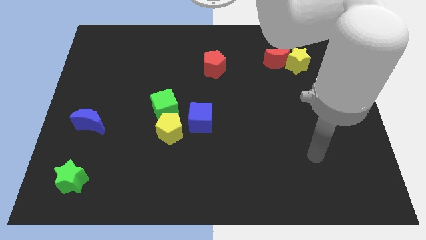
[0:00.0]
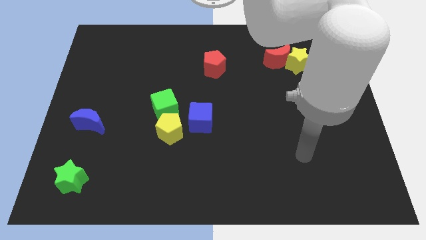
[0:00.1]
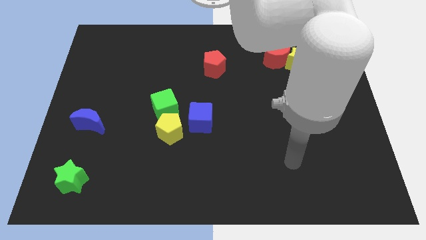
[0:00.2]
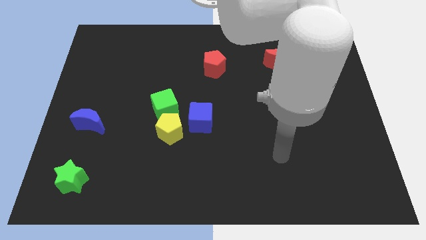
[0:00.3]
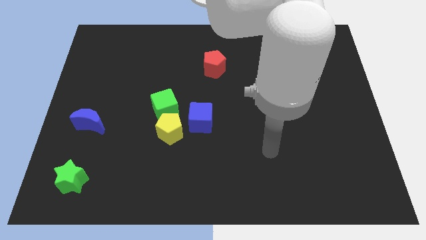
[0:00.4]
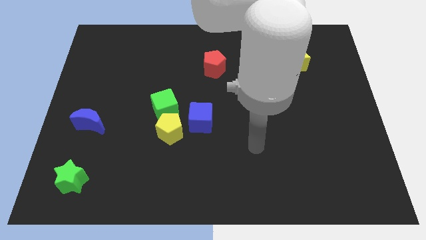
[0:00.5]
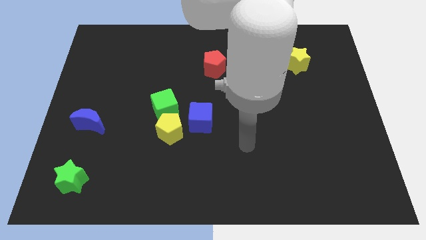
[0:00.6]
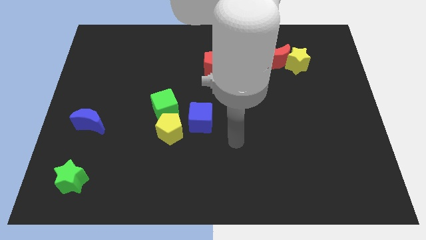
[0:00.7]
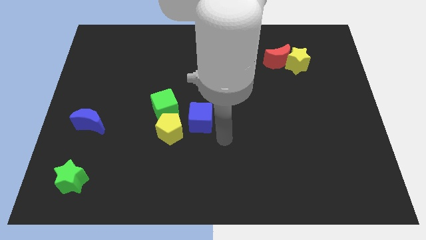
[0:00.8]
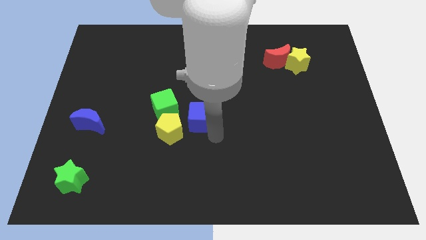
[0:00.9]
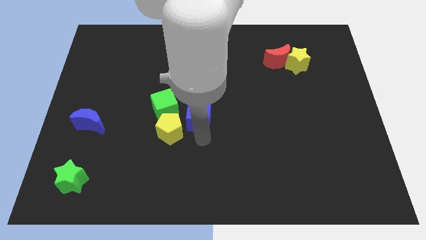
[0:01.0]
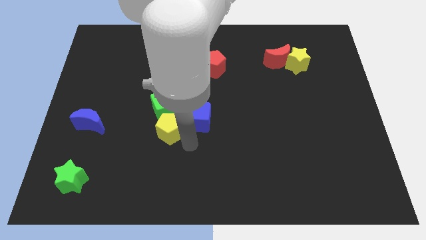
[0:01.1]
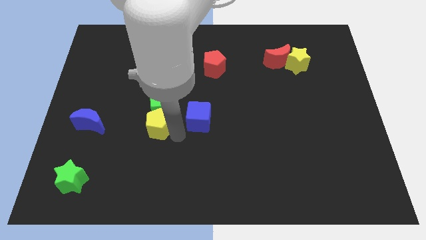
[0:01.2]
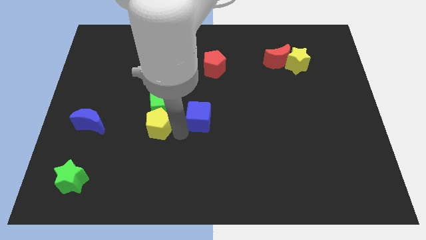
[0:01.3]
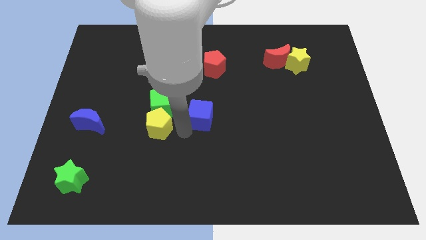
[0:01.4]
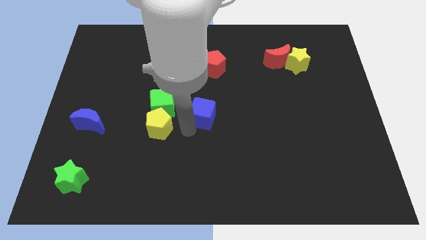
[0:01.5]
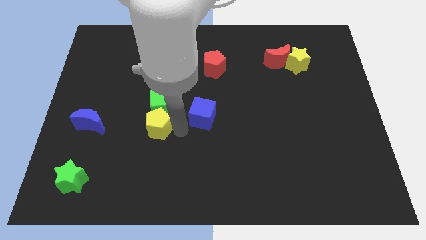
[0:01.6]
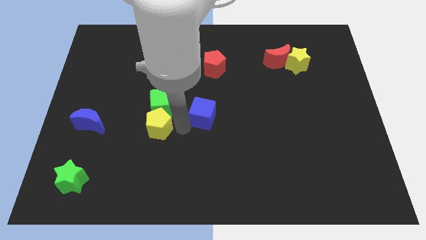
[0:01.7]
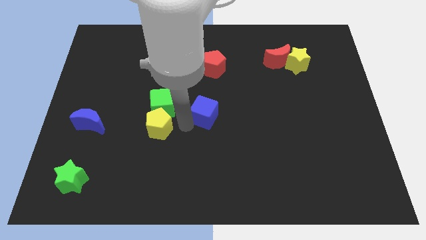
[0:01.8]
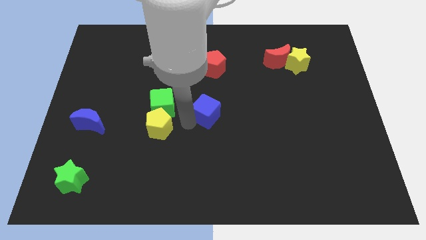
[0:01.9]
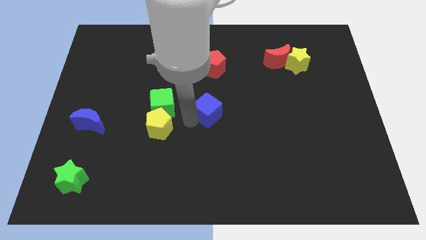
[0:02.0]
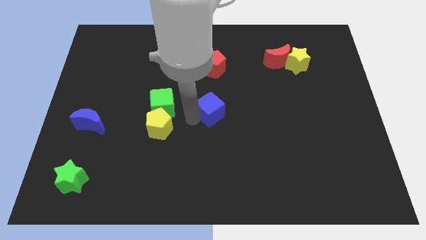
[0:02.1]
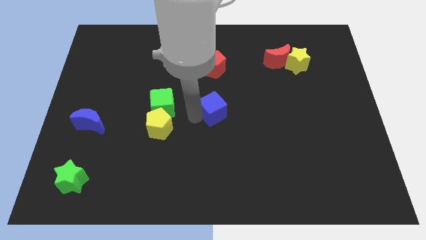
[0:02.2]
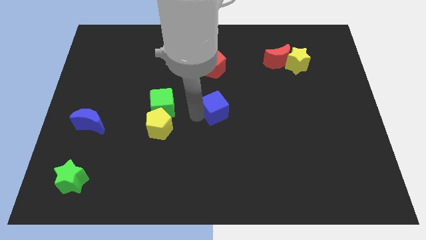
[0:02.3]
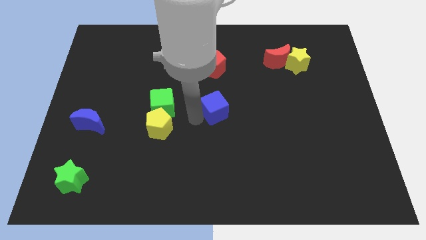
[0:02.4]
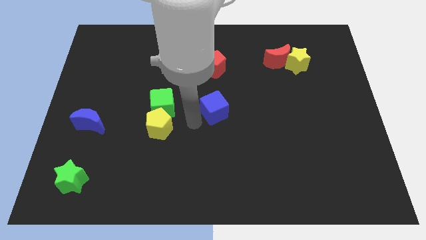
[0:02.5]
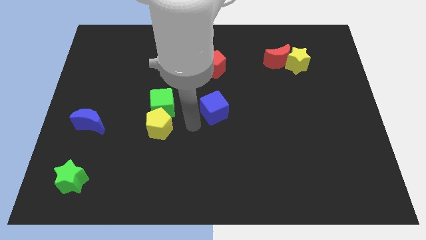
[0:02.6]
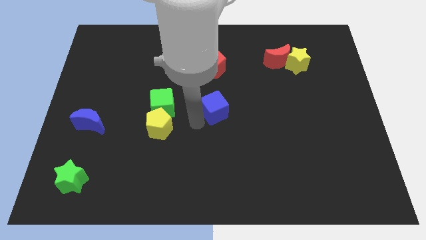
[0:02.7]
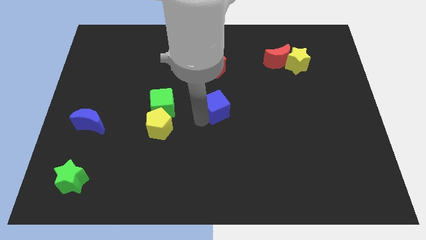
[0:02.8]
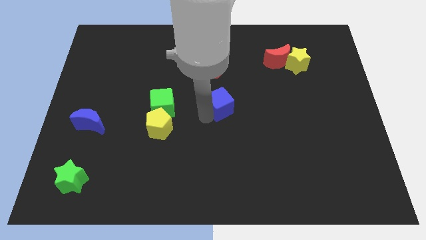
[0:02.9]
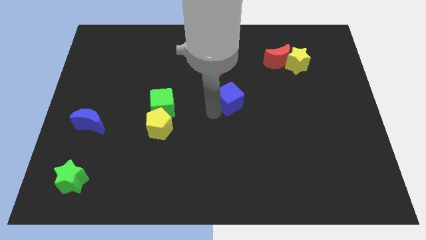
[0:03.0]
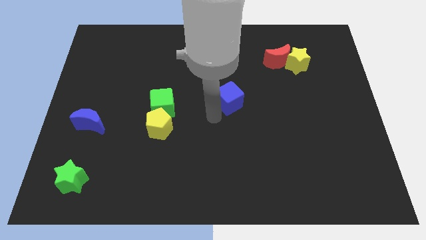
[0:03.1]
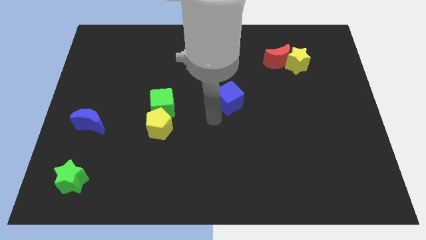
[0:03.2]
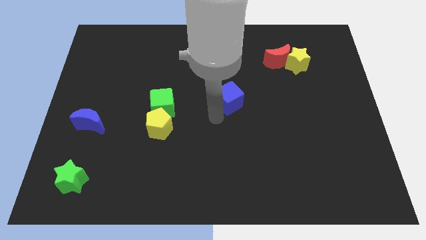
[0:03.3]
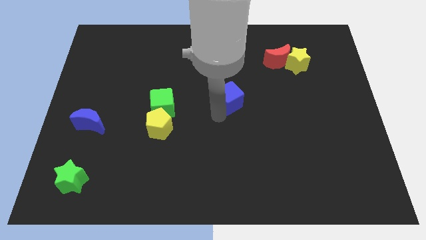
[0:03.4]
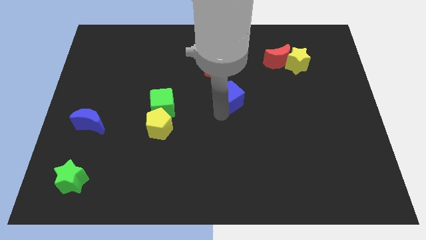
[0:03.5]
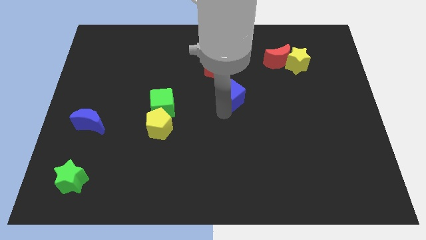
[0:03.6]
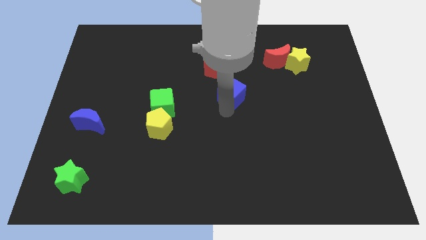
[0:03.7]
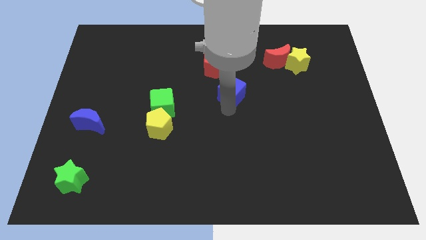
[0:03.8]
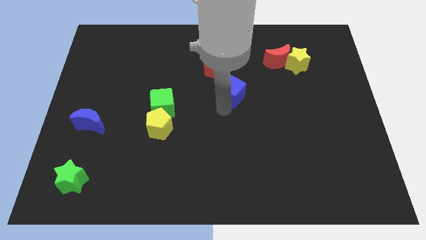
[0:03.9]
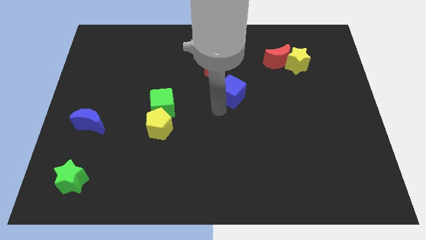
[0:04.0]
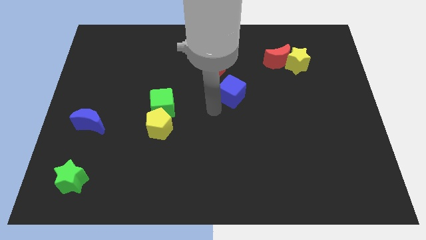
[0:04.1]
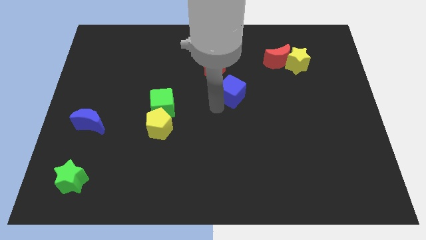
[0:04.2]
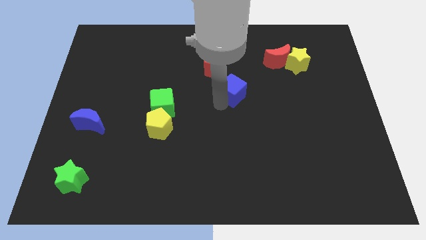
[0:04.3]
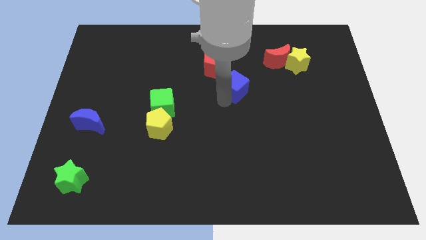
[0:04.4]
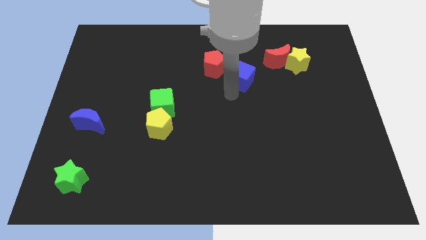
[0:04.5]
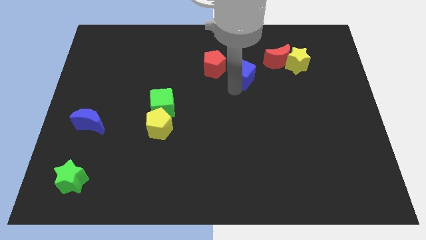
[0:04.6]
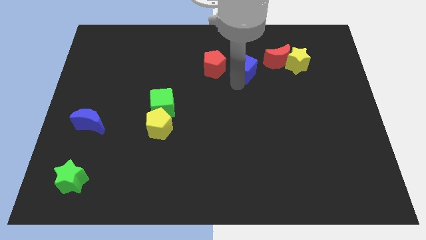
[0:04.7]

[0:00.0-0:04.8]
slide the blue cube just left of the yellow star

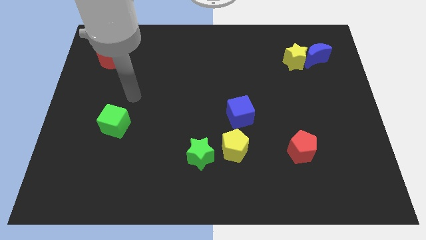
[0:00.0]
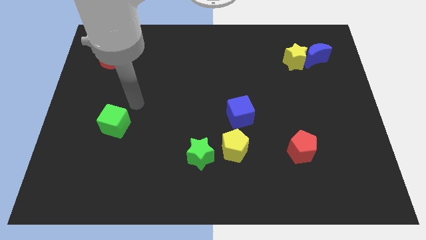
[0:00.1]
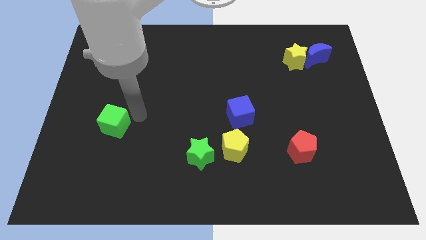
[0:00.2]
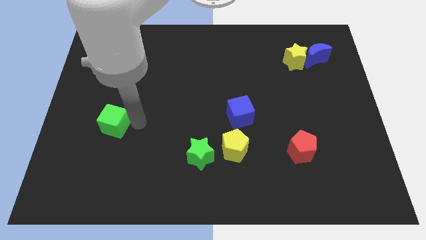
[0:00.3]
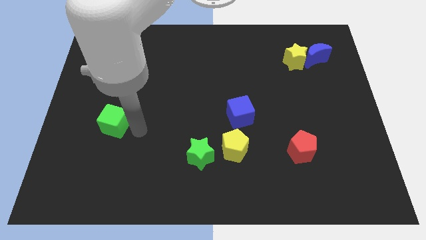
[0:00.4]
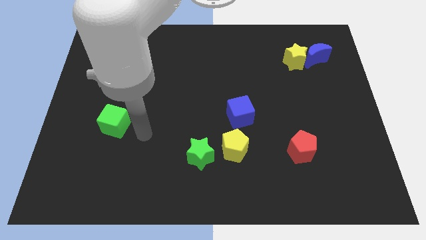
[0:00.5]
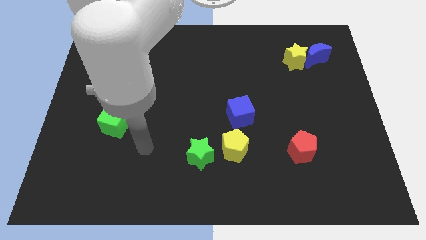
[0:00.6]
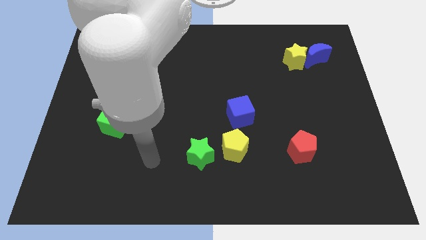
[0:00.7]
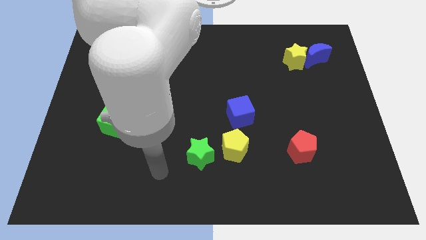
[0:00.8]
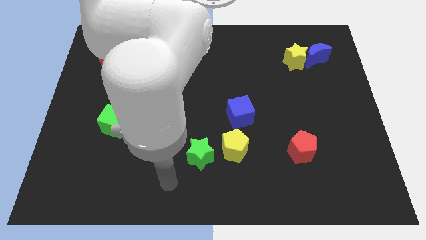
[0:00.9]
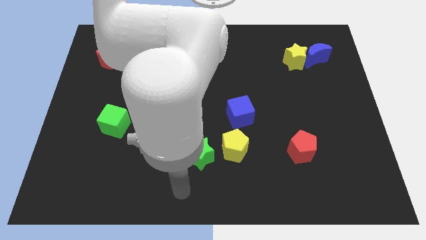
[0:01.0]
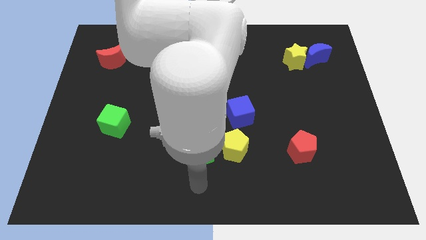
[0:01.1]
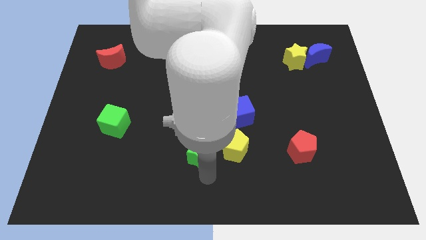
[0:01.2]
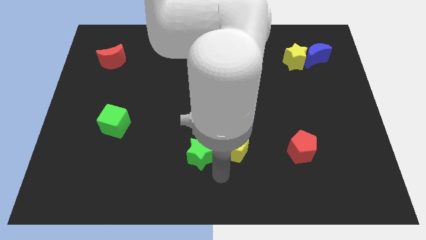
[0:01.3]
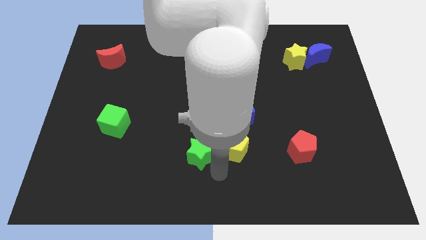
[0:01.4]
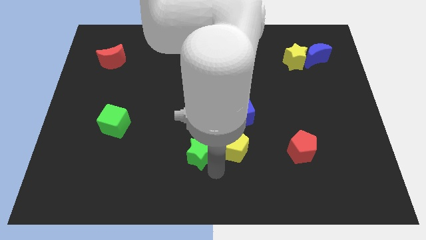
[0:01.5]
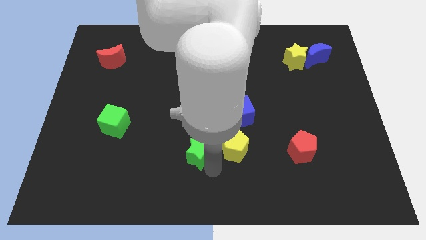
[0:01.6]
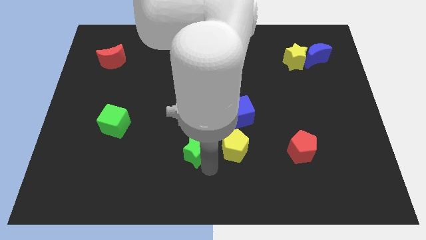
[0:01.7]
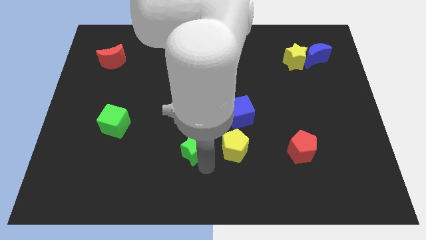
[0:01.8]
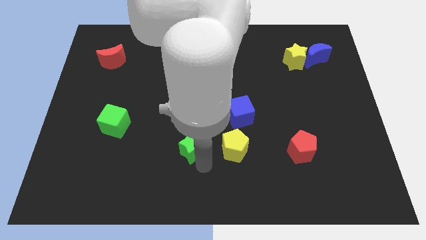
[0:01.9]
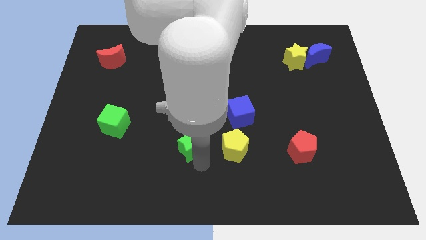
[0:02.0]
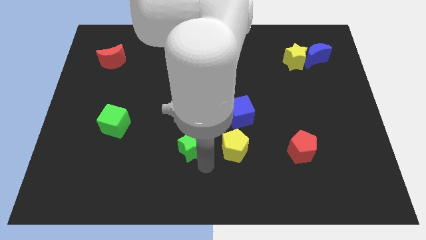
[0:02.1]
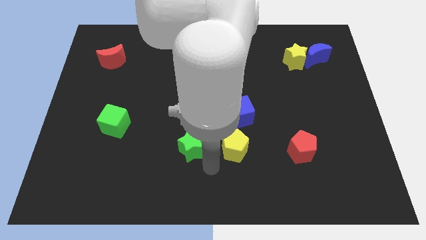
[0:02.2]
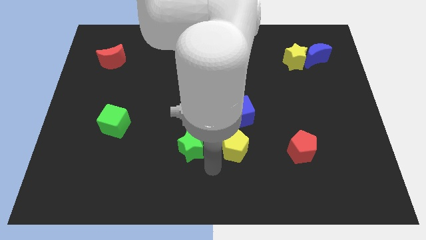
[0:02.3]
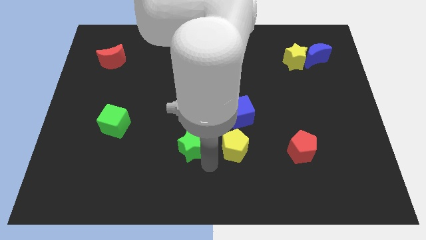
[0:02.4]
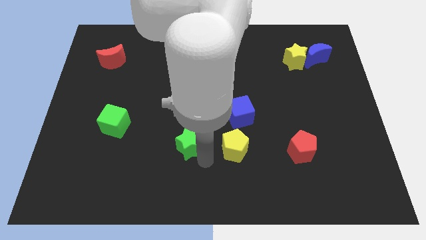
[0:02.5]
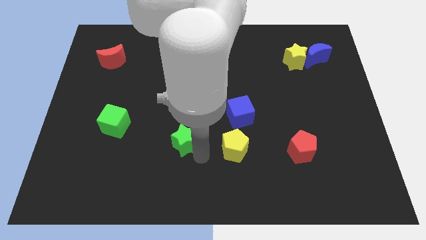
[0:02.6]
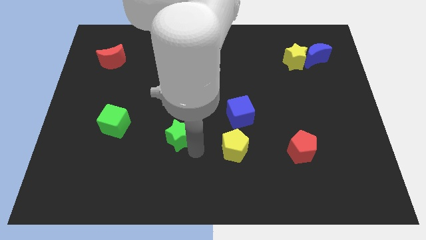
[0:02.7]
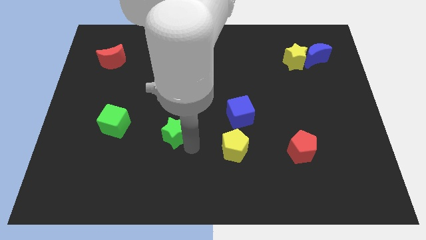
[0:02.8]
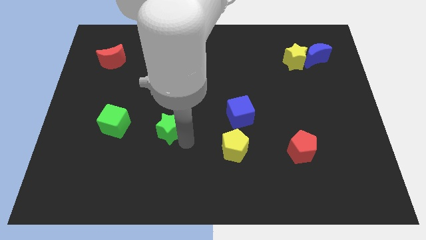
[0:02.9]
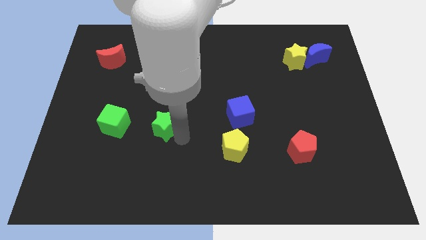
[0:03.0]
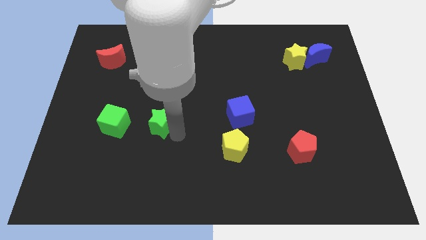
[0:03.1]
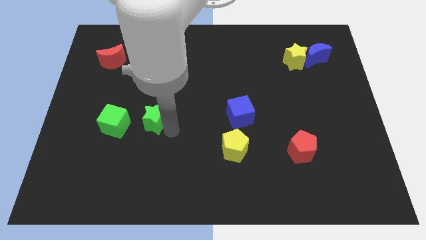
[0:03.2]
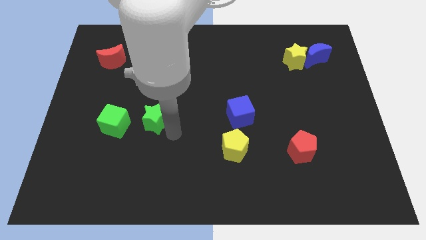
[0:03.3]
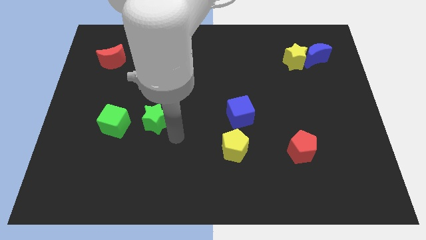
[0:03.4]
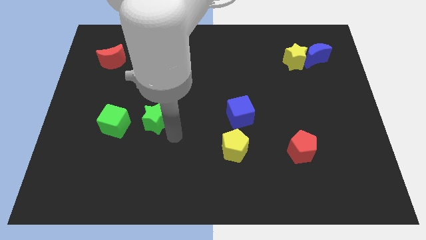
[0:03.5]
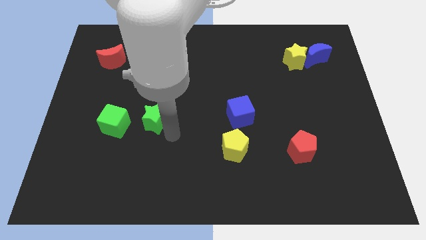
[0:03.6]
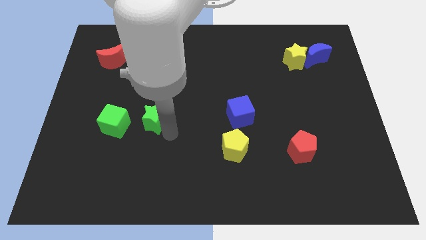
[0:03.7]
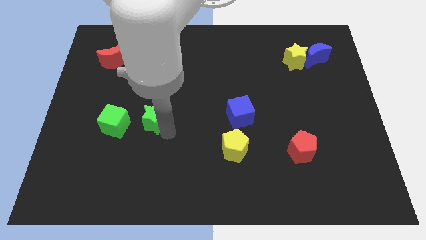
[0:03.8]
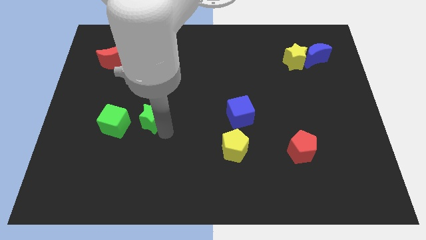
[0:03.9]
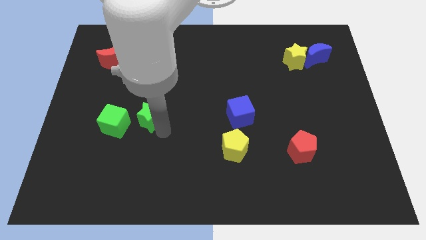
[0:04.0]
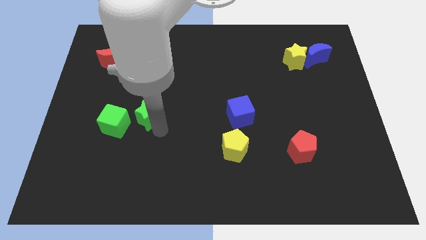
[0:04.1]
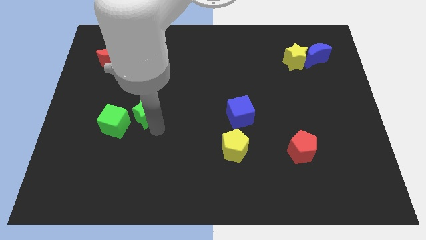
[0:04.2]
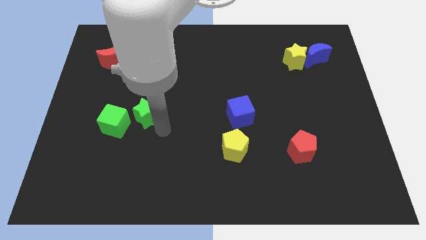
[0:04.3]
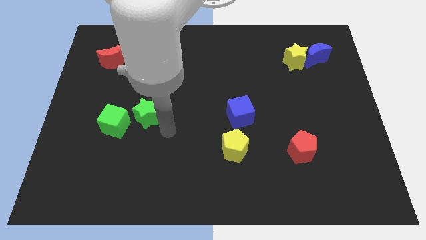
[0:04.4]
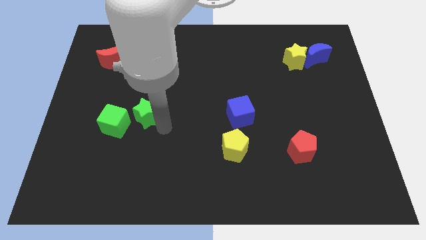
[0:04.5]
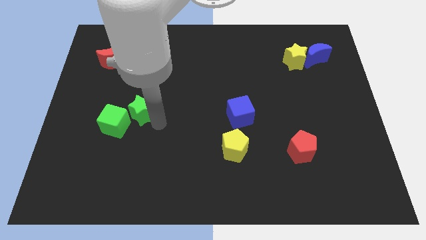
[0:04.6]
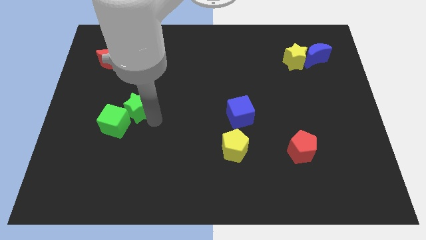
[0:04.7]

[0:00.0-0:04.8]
push the green star to the top side of the green cube
